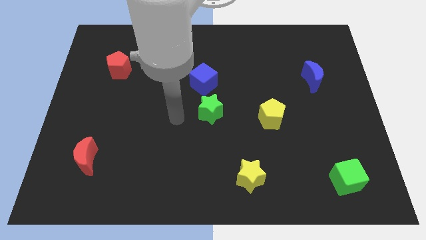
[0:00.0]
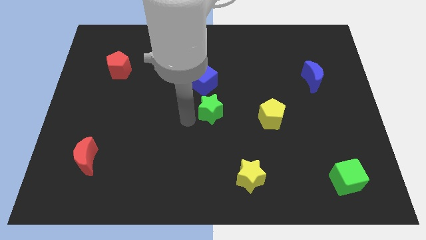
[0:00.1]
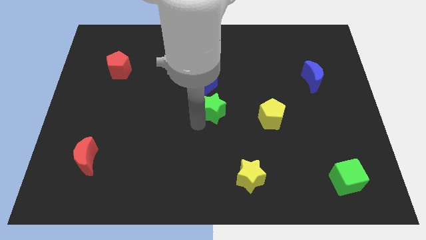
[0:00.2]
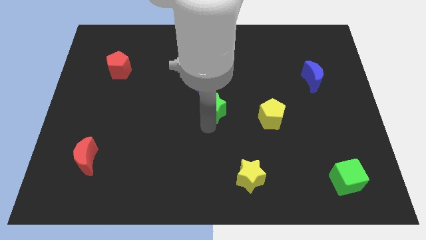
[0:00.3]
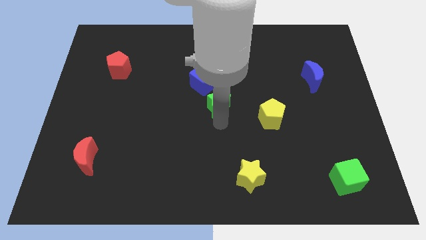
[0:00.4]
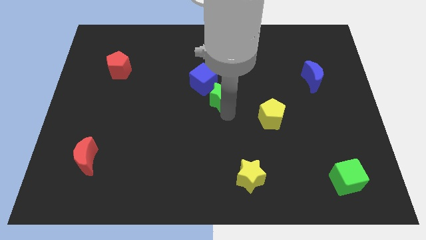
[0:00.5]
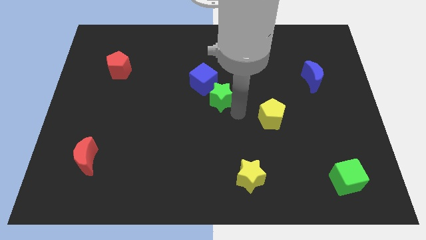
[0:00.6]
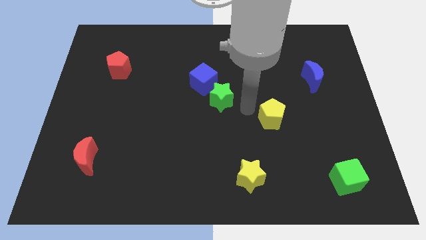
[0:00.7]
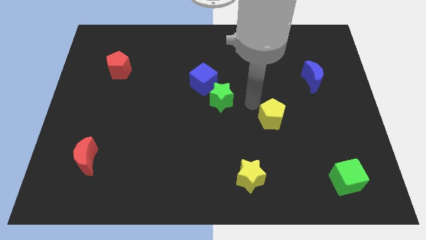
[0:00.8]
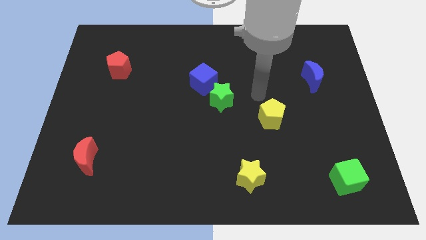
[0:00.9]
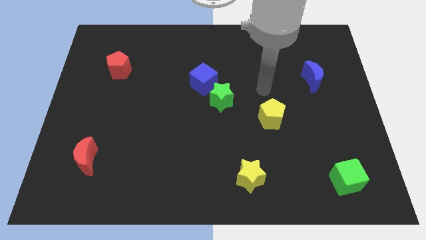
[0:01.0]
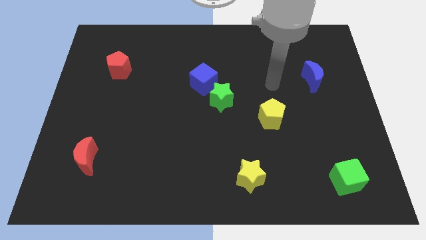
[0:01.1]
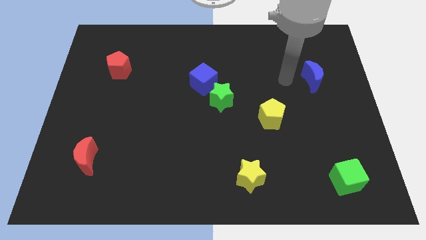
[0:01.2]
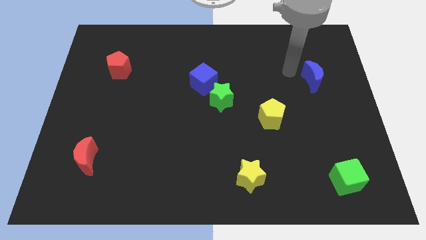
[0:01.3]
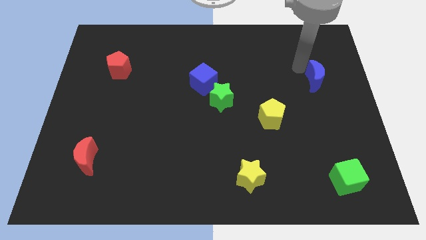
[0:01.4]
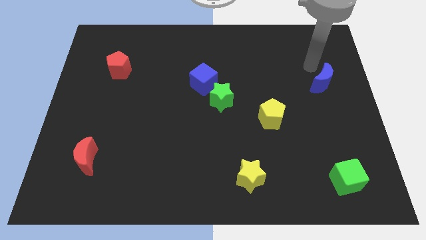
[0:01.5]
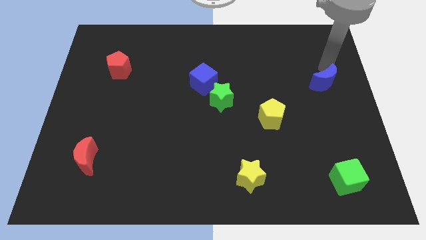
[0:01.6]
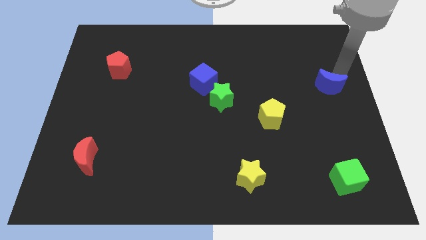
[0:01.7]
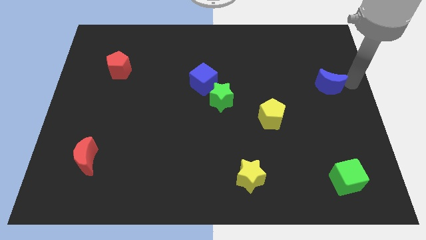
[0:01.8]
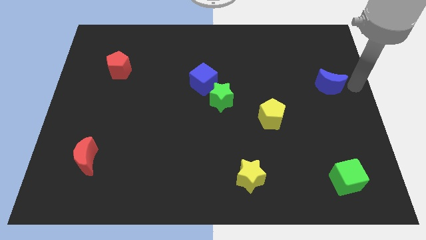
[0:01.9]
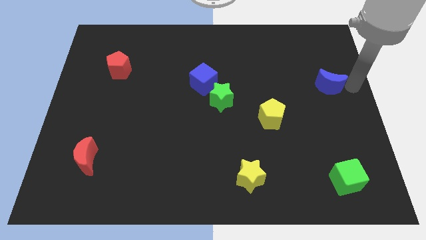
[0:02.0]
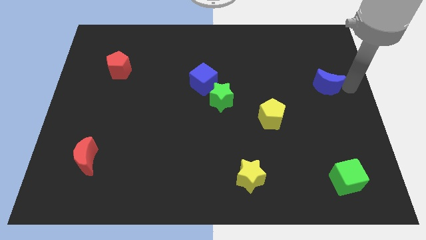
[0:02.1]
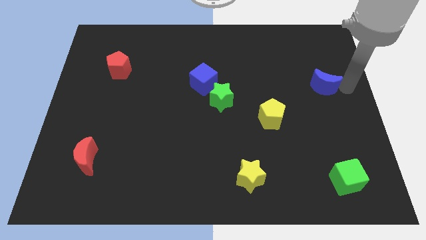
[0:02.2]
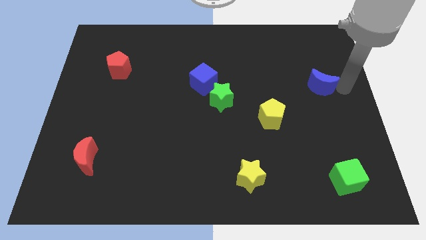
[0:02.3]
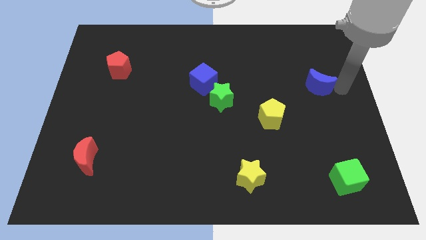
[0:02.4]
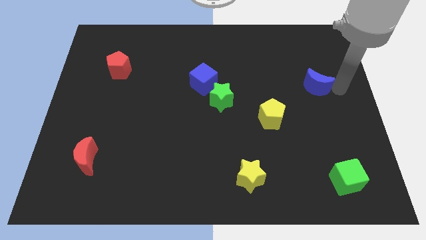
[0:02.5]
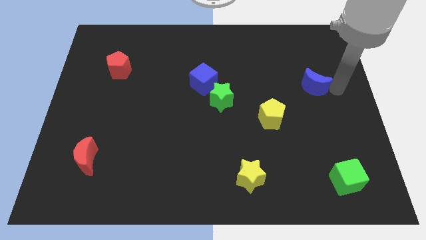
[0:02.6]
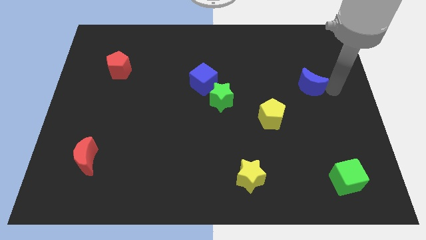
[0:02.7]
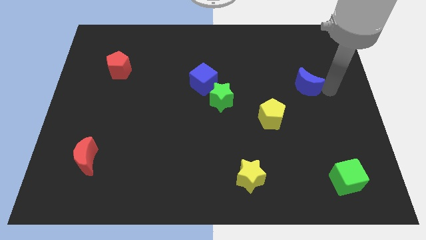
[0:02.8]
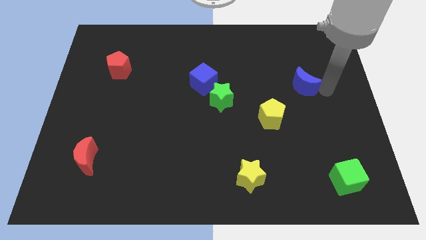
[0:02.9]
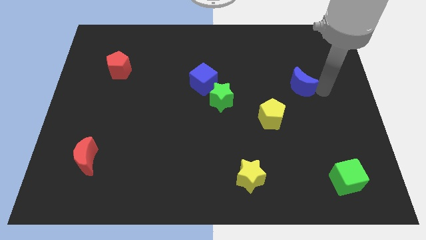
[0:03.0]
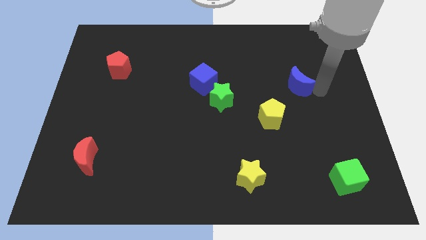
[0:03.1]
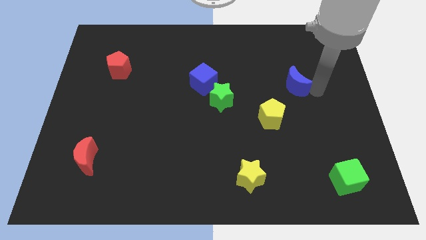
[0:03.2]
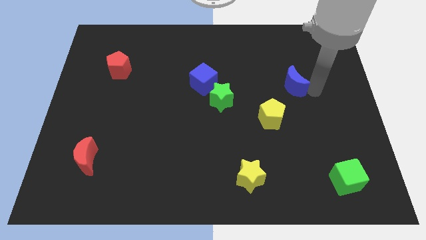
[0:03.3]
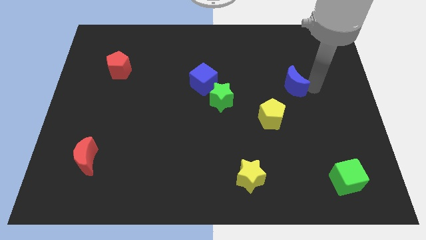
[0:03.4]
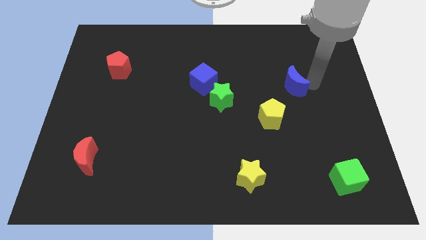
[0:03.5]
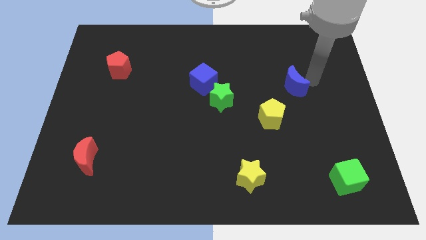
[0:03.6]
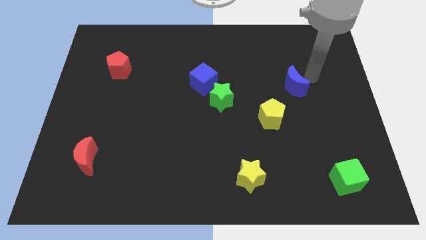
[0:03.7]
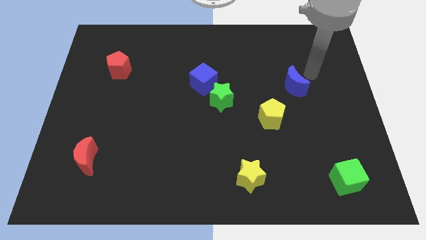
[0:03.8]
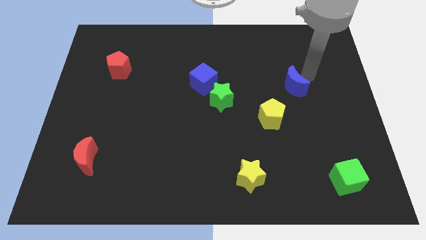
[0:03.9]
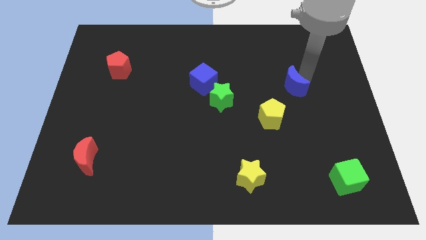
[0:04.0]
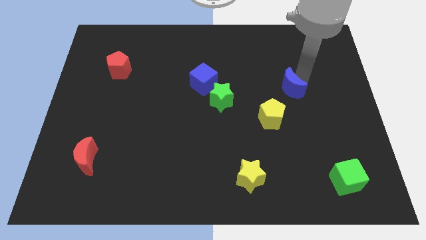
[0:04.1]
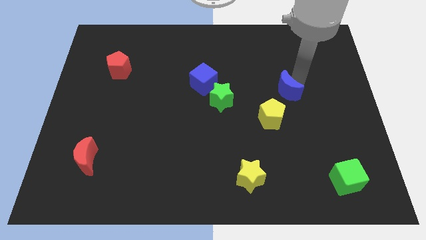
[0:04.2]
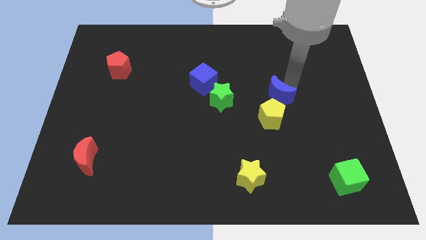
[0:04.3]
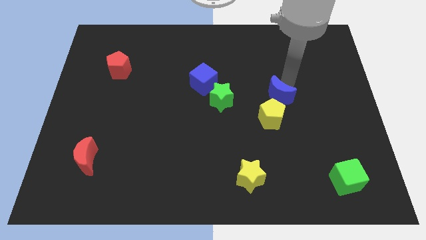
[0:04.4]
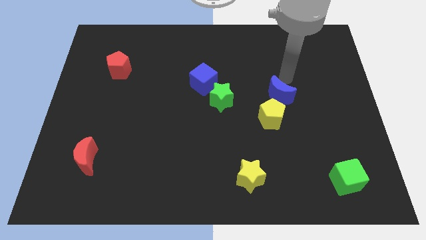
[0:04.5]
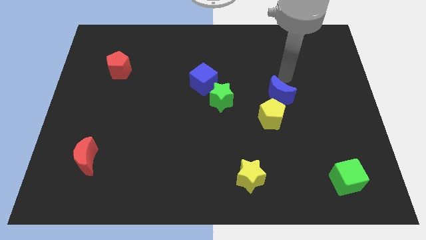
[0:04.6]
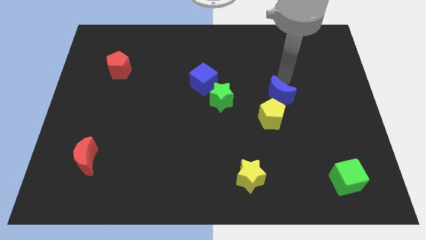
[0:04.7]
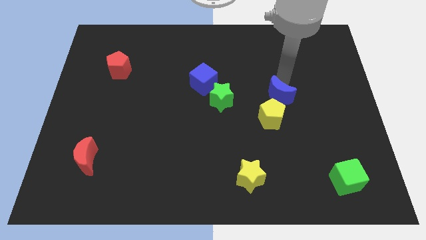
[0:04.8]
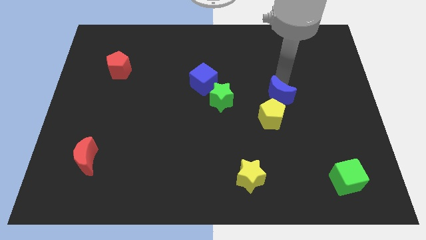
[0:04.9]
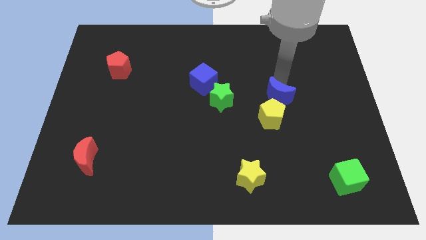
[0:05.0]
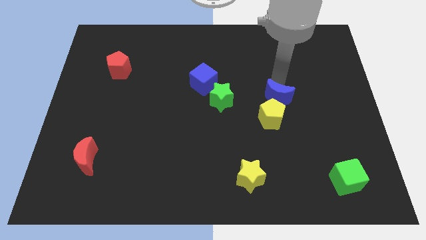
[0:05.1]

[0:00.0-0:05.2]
move the blue moon next to the yellow pentagon

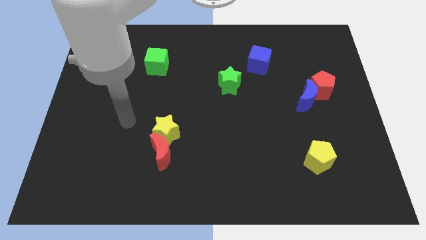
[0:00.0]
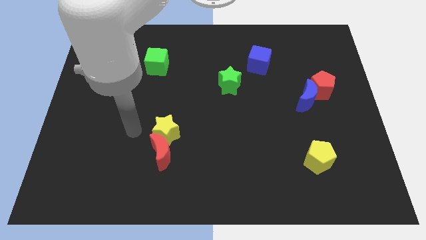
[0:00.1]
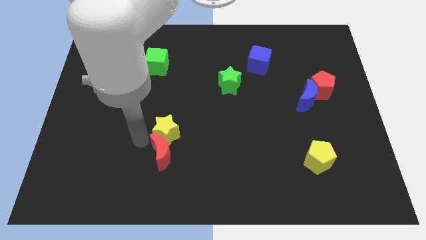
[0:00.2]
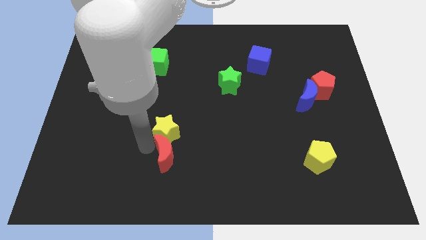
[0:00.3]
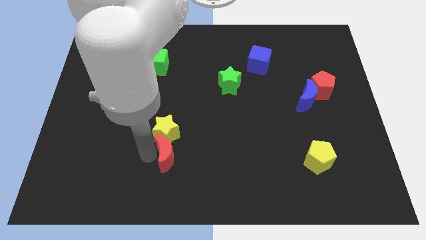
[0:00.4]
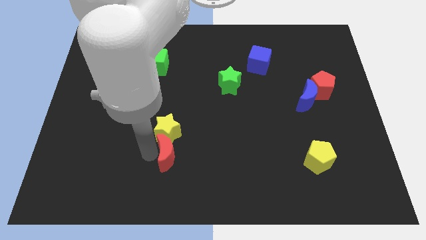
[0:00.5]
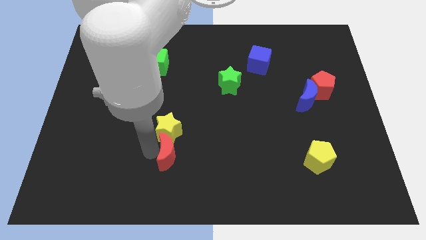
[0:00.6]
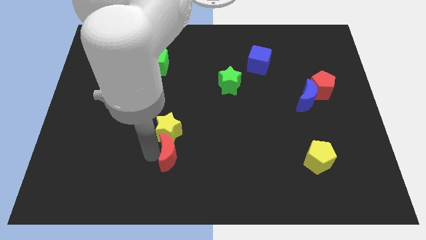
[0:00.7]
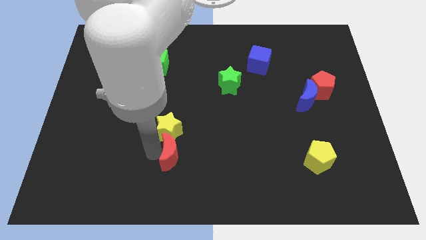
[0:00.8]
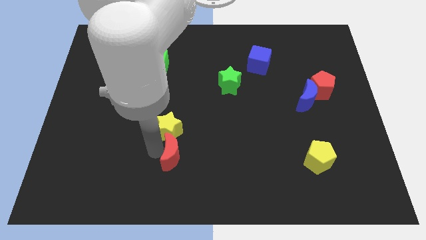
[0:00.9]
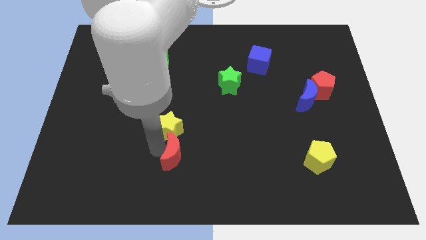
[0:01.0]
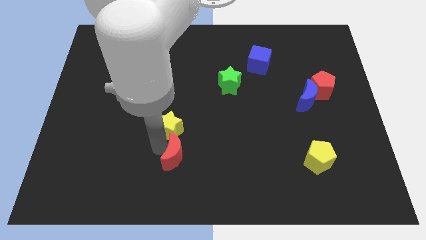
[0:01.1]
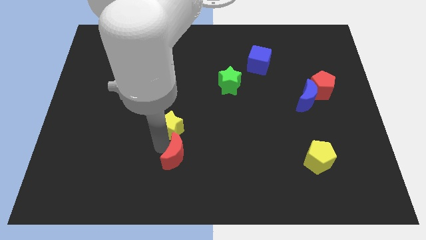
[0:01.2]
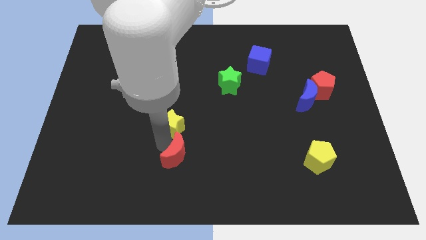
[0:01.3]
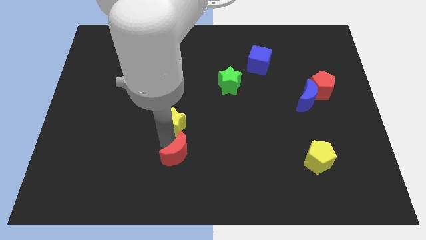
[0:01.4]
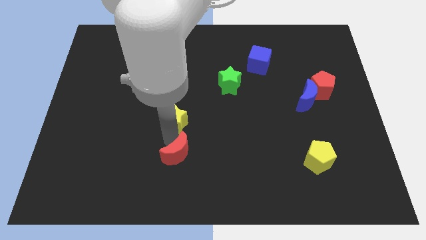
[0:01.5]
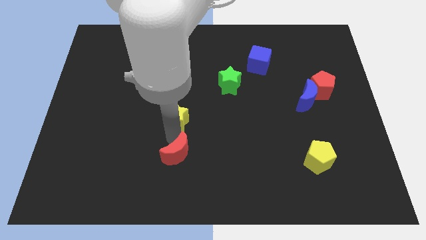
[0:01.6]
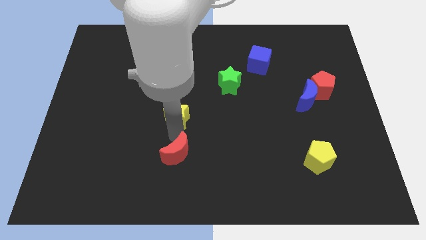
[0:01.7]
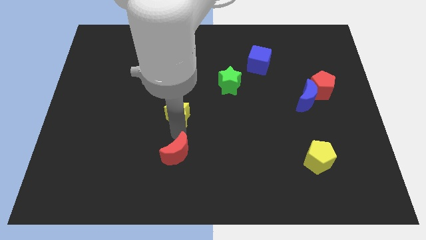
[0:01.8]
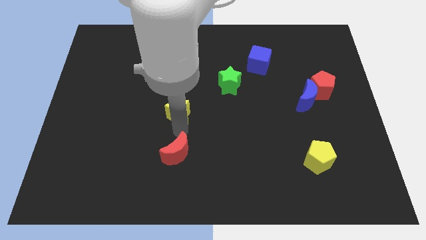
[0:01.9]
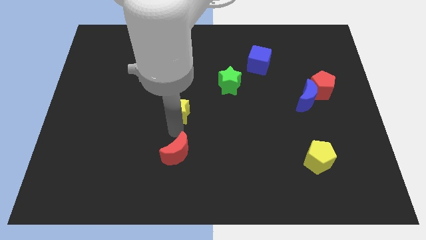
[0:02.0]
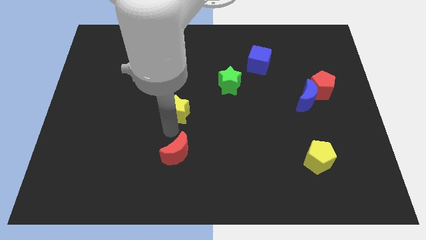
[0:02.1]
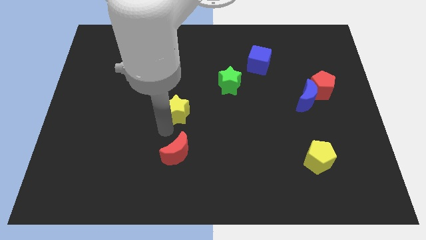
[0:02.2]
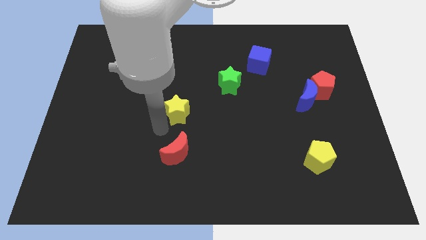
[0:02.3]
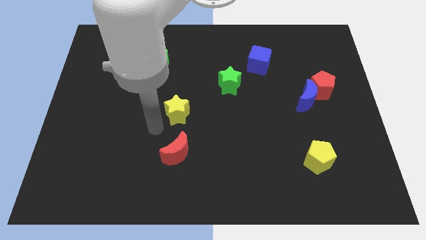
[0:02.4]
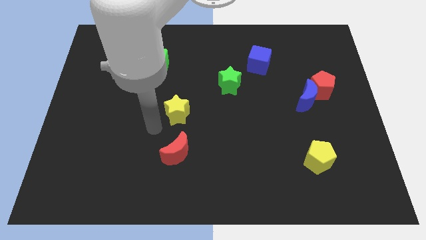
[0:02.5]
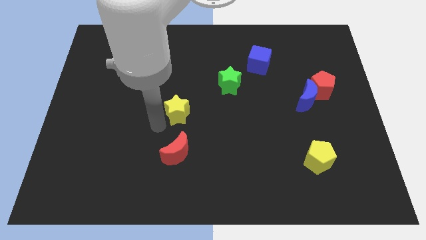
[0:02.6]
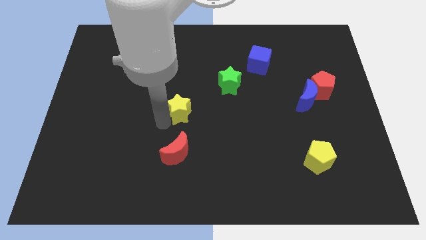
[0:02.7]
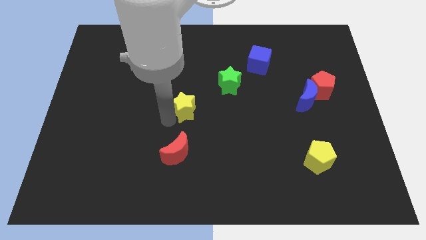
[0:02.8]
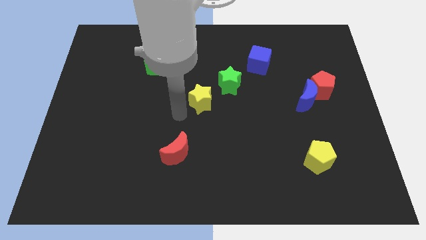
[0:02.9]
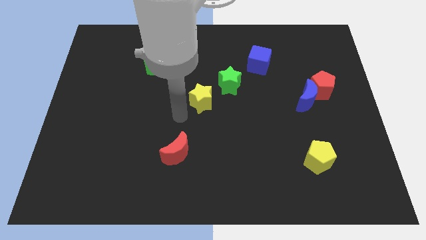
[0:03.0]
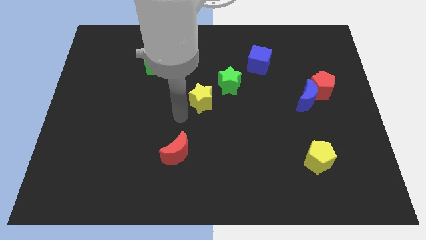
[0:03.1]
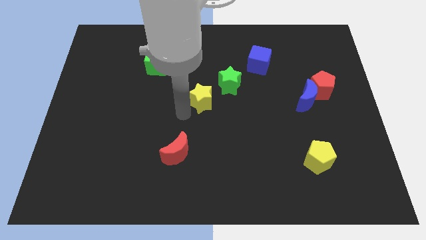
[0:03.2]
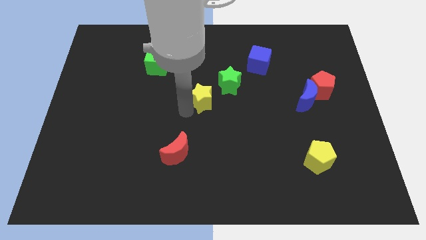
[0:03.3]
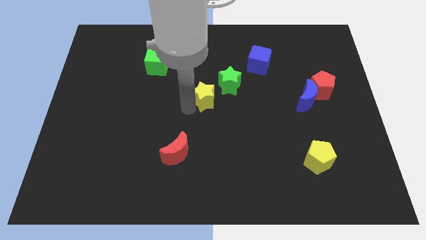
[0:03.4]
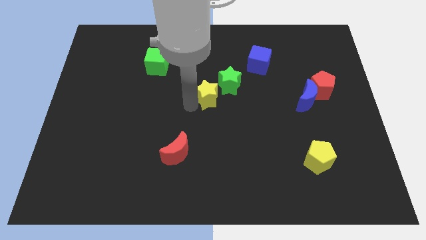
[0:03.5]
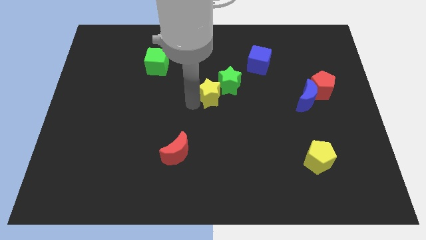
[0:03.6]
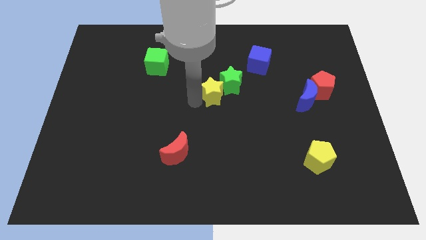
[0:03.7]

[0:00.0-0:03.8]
push the yellow star close to the green star
